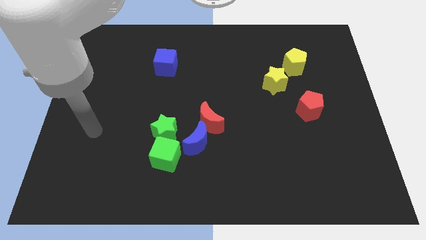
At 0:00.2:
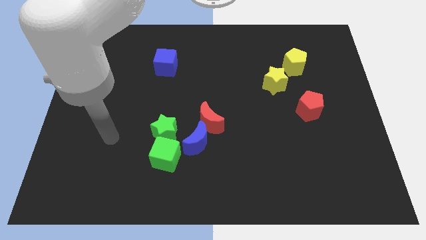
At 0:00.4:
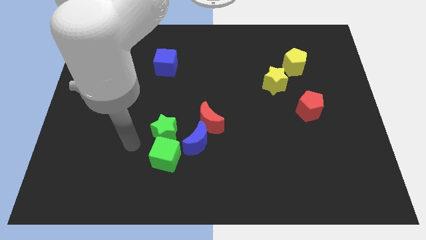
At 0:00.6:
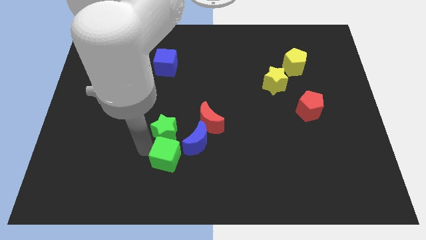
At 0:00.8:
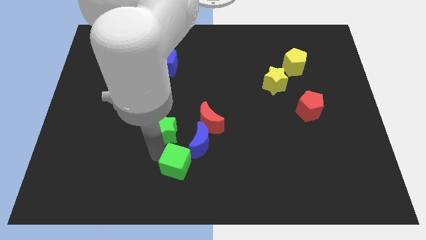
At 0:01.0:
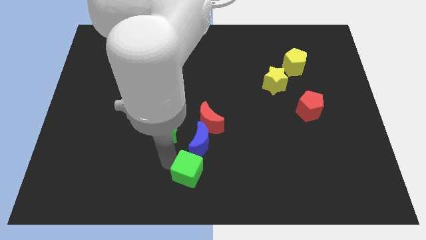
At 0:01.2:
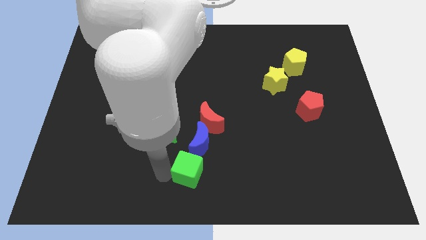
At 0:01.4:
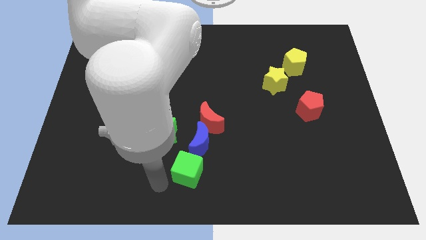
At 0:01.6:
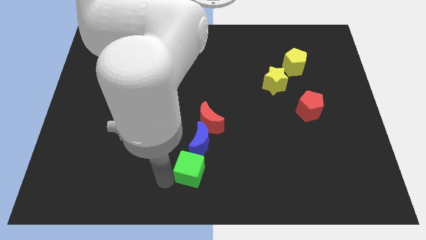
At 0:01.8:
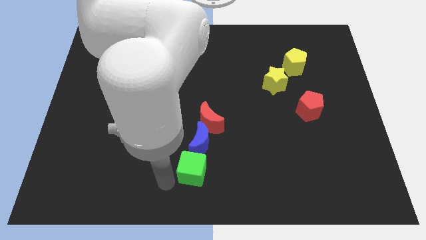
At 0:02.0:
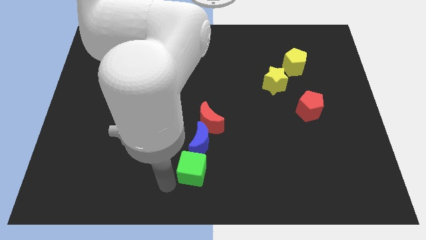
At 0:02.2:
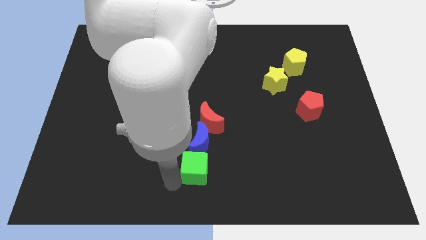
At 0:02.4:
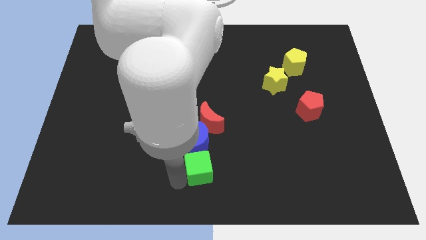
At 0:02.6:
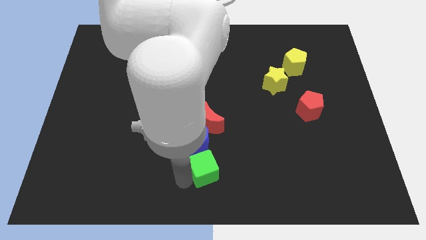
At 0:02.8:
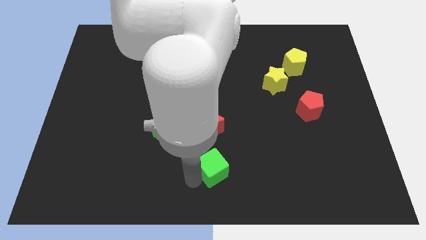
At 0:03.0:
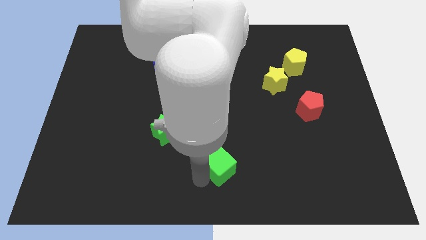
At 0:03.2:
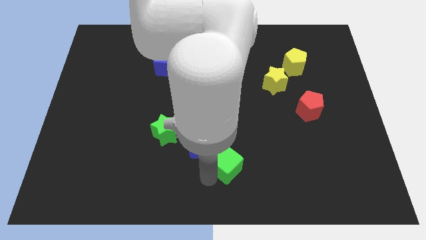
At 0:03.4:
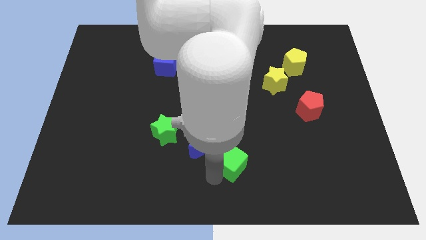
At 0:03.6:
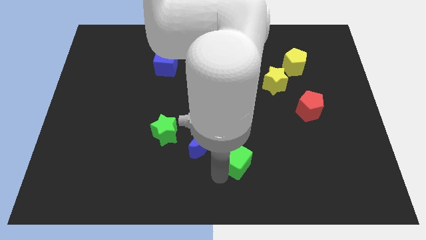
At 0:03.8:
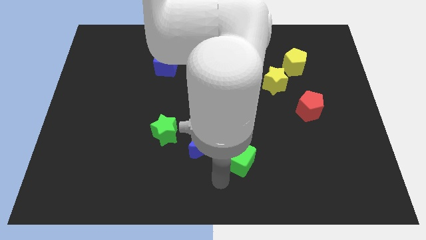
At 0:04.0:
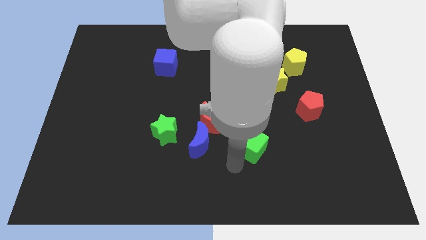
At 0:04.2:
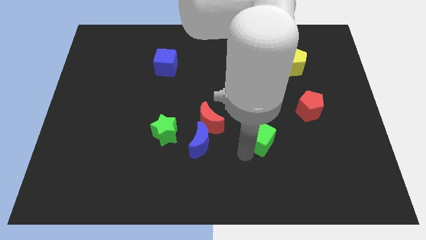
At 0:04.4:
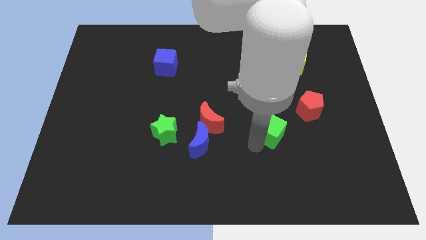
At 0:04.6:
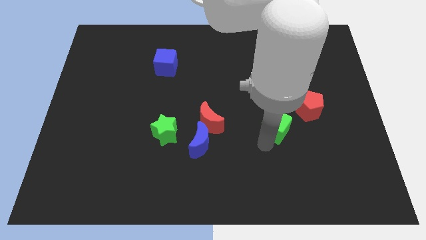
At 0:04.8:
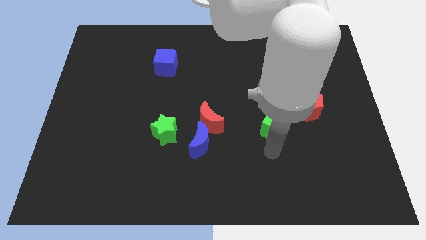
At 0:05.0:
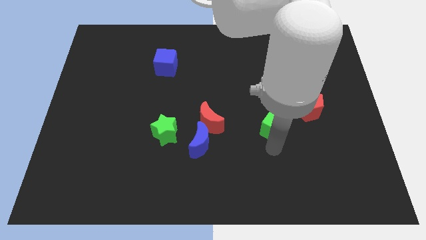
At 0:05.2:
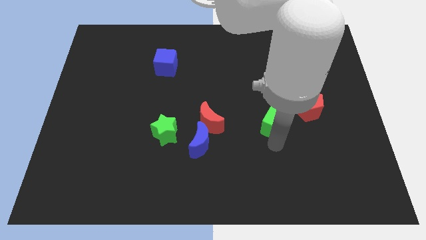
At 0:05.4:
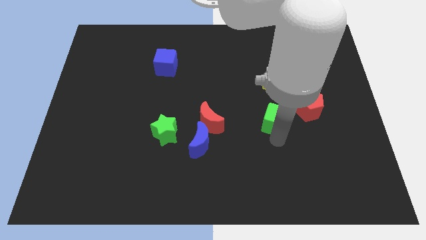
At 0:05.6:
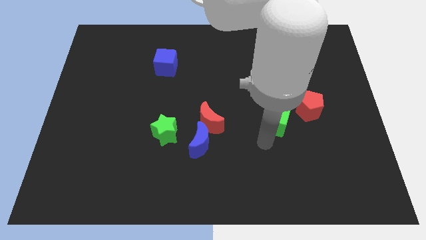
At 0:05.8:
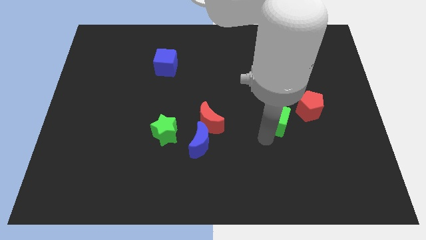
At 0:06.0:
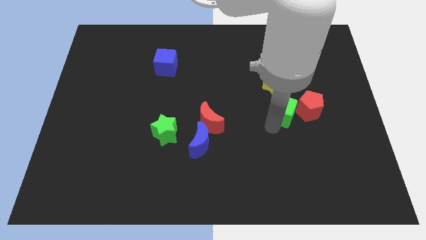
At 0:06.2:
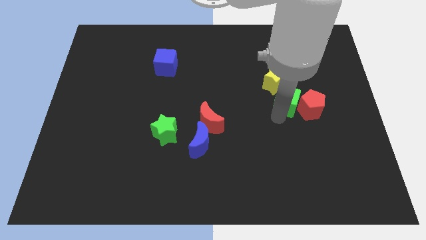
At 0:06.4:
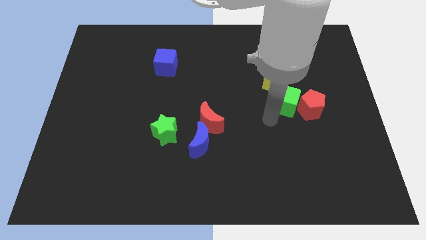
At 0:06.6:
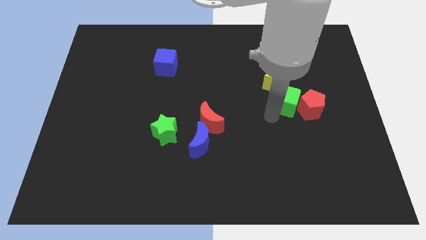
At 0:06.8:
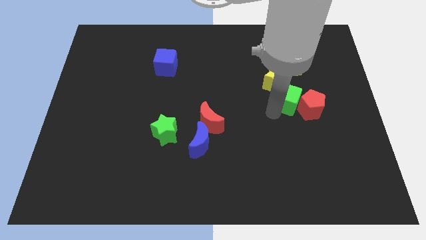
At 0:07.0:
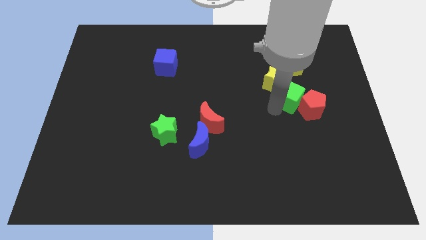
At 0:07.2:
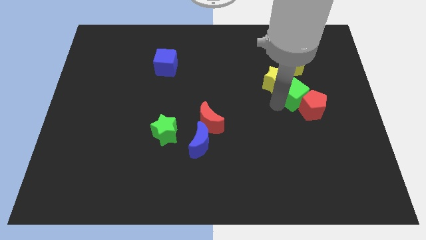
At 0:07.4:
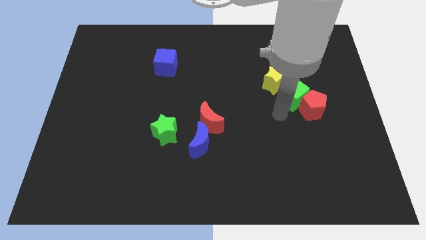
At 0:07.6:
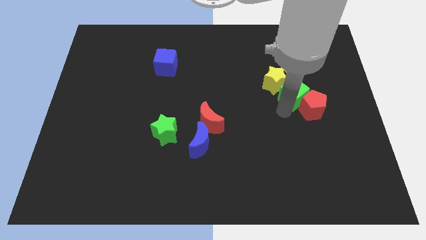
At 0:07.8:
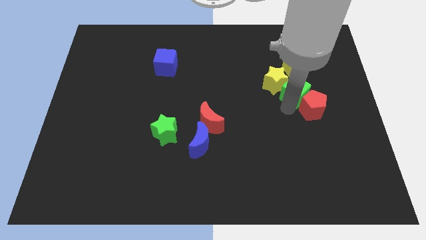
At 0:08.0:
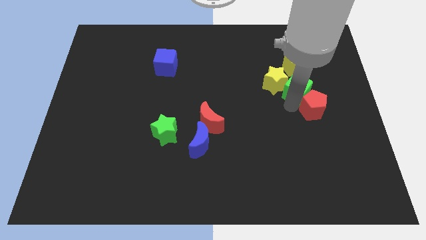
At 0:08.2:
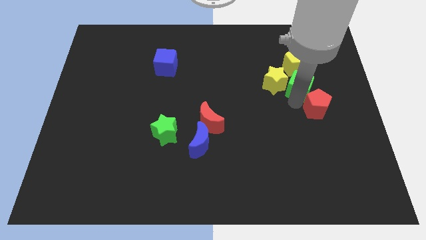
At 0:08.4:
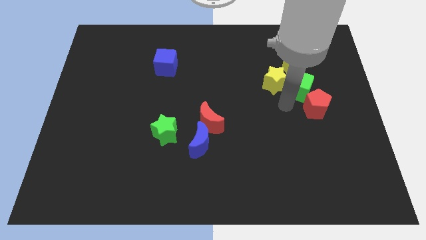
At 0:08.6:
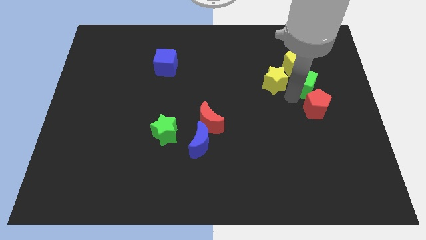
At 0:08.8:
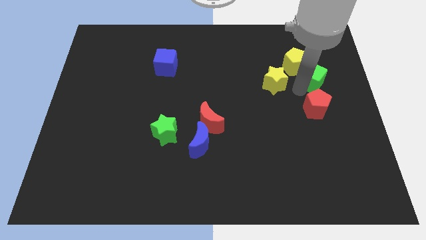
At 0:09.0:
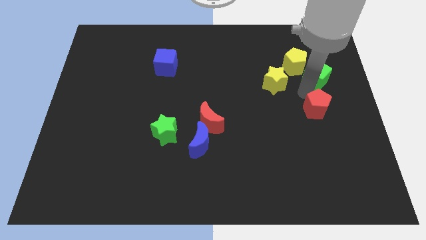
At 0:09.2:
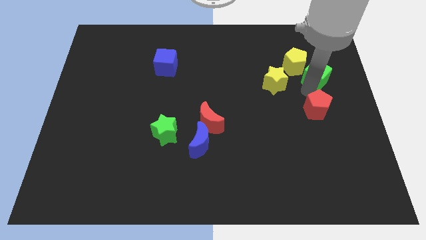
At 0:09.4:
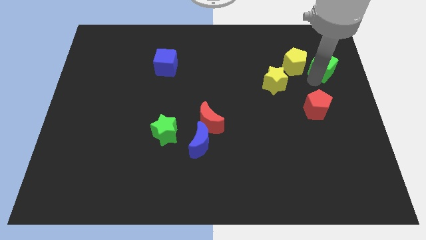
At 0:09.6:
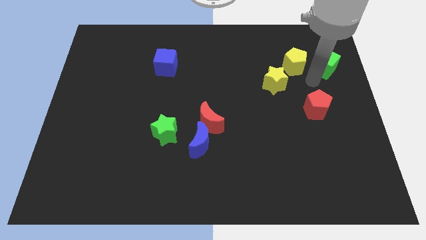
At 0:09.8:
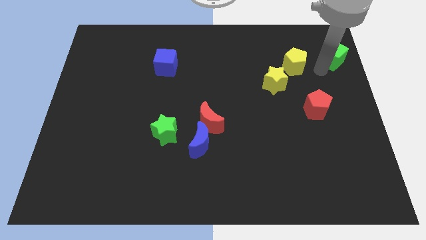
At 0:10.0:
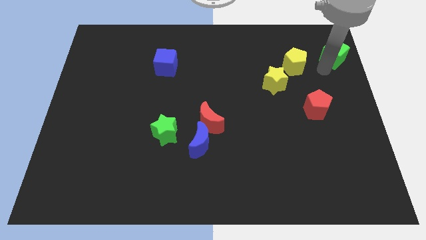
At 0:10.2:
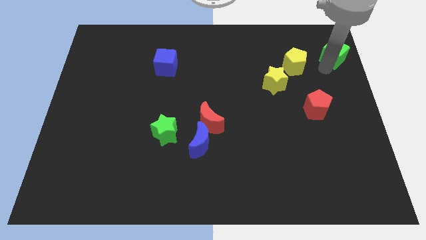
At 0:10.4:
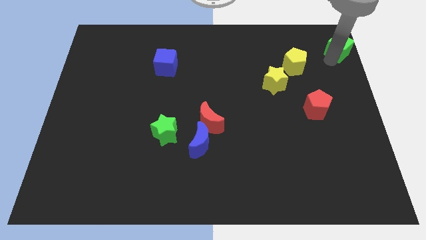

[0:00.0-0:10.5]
push the green cube to the upper right corner
